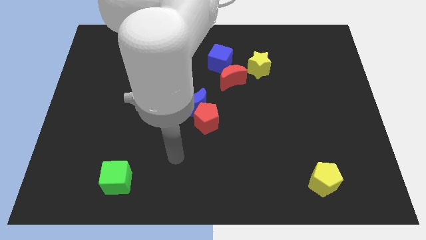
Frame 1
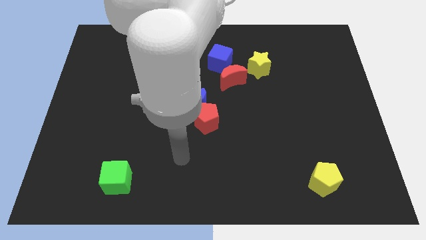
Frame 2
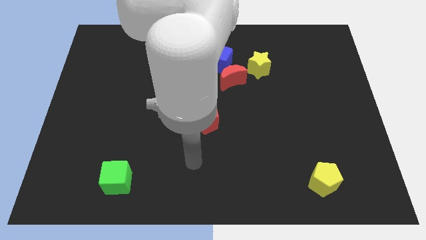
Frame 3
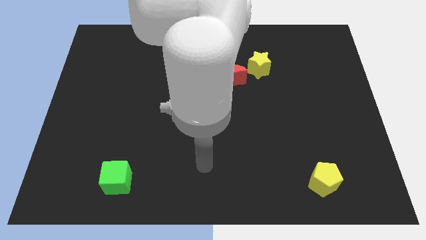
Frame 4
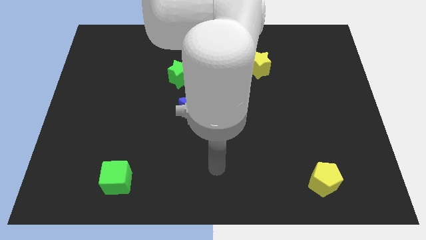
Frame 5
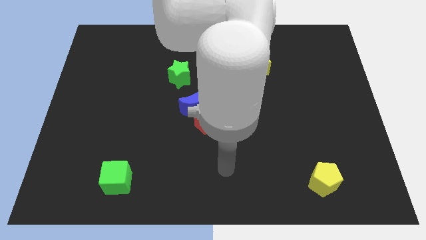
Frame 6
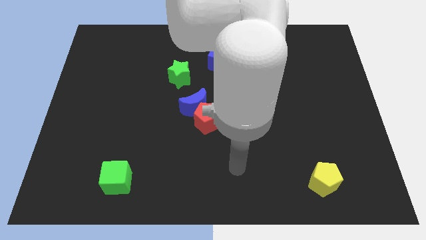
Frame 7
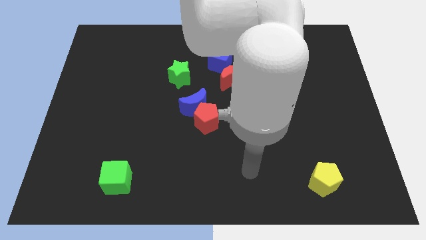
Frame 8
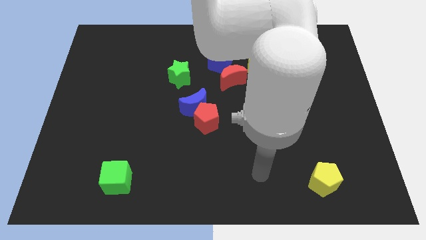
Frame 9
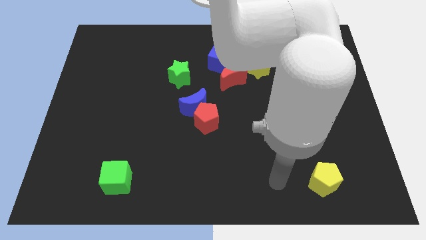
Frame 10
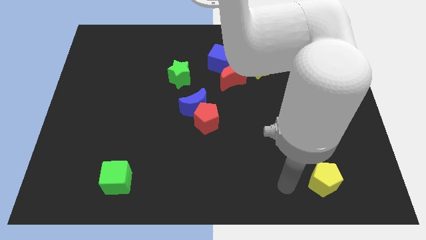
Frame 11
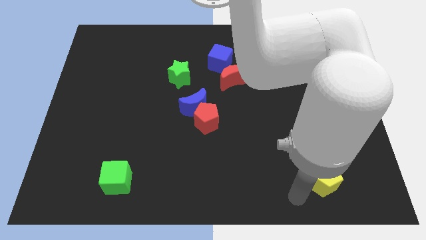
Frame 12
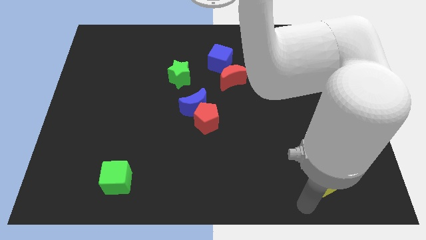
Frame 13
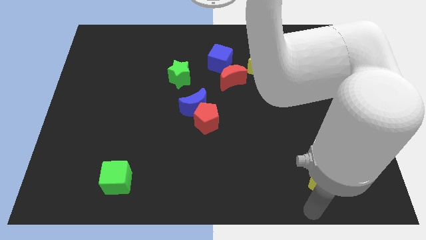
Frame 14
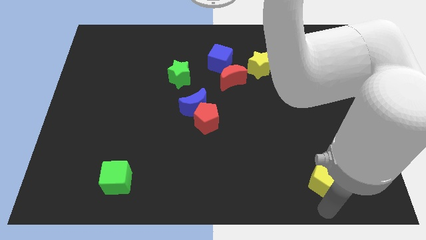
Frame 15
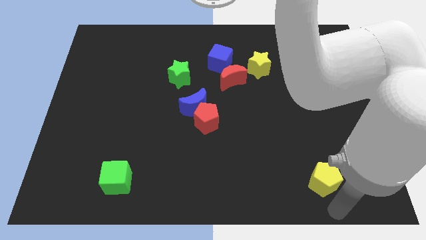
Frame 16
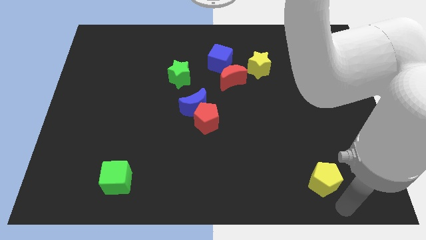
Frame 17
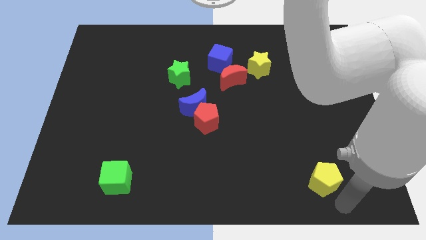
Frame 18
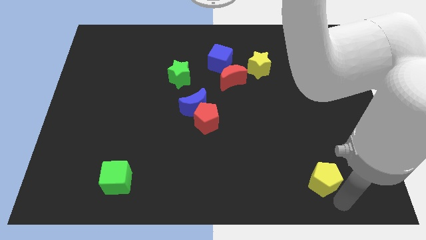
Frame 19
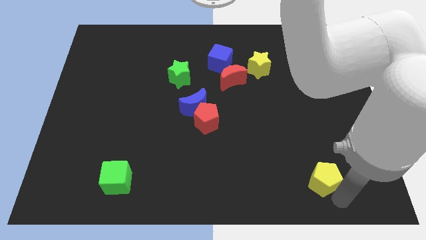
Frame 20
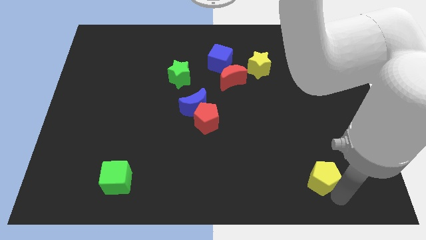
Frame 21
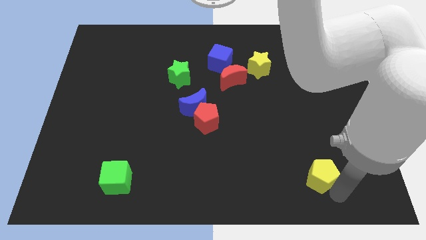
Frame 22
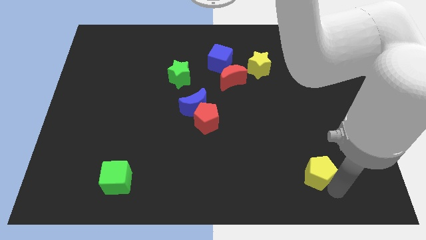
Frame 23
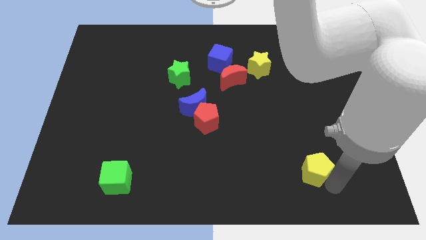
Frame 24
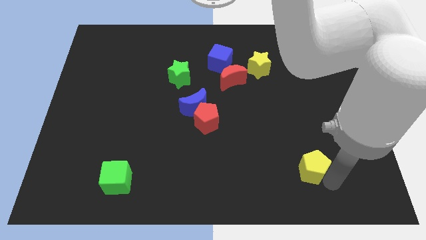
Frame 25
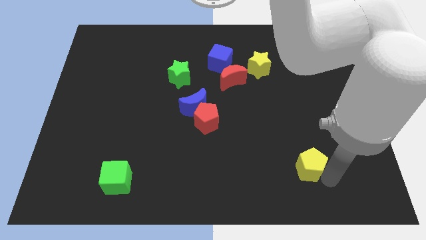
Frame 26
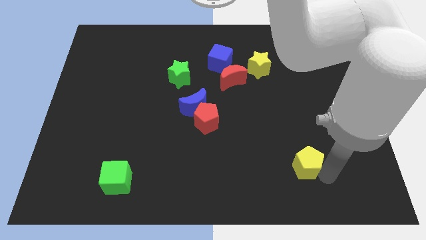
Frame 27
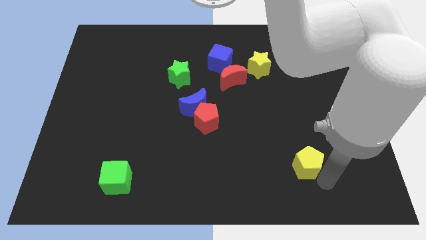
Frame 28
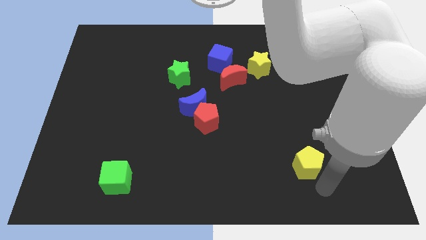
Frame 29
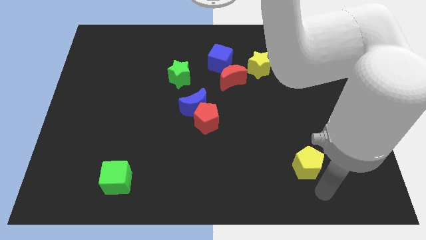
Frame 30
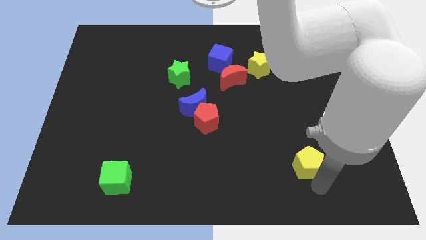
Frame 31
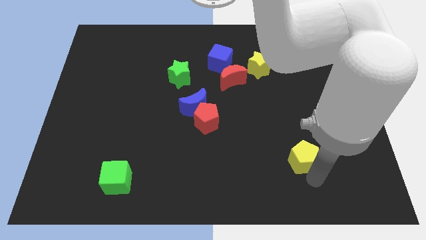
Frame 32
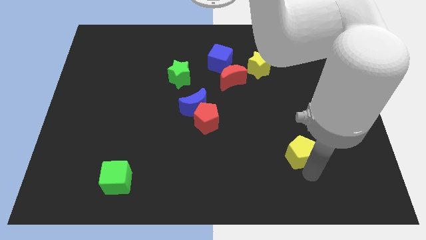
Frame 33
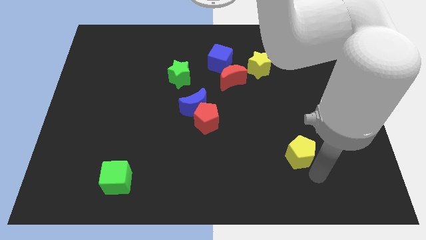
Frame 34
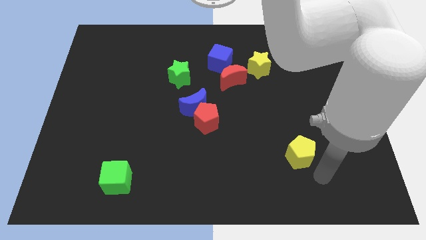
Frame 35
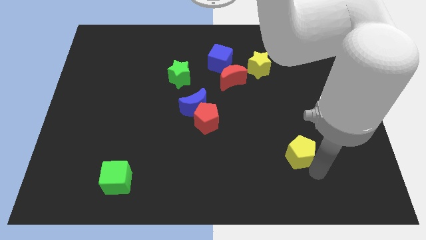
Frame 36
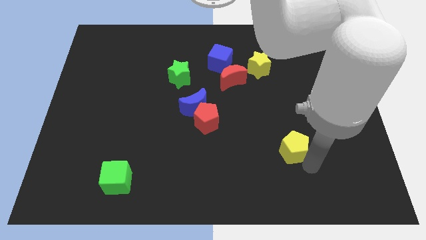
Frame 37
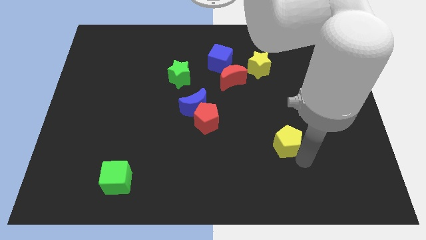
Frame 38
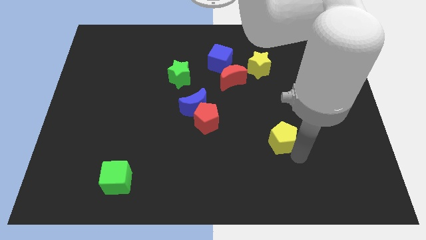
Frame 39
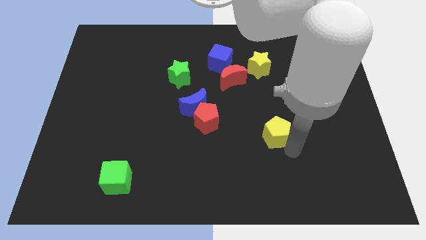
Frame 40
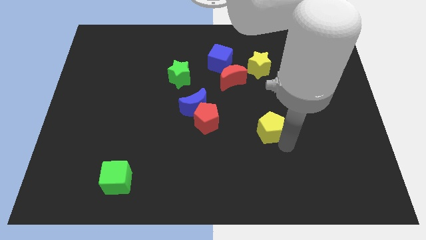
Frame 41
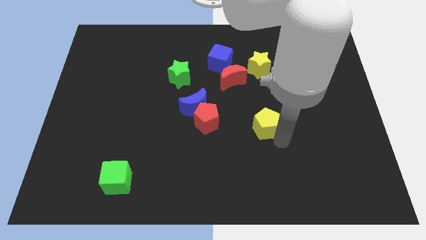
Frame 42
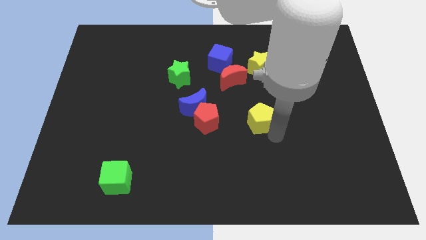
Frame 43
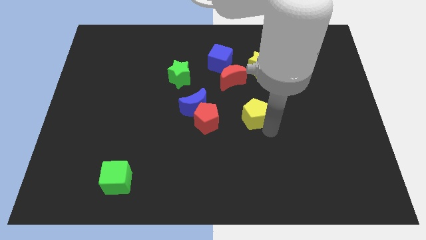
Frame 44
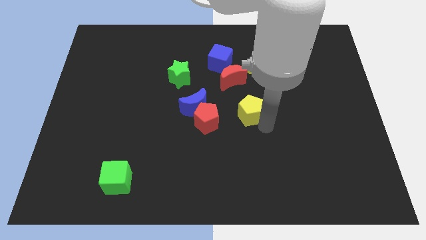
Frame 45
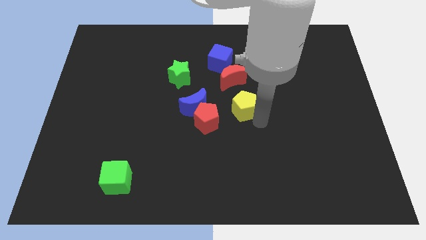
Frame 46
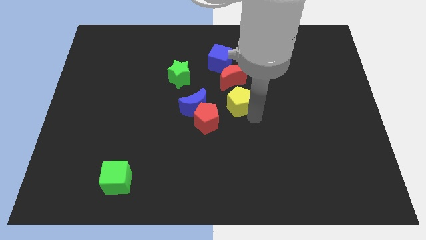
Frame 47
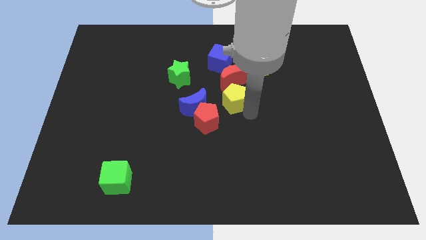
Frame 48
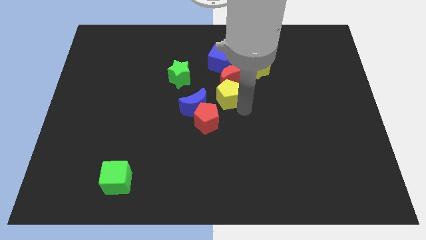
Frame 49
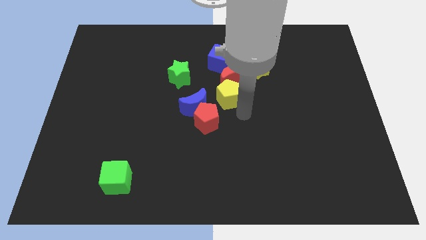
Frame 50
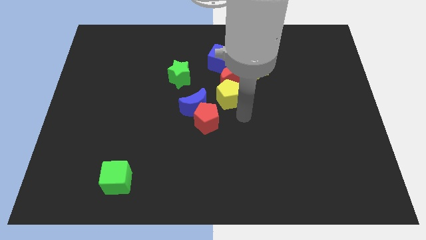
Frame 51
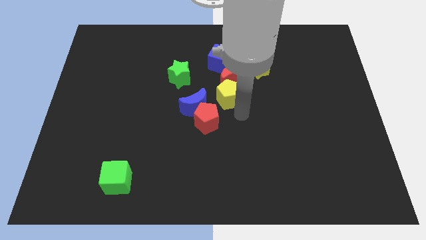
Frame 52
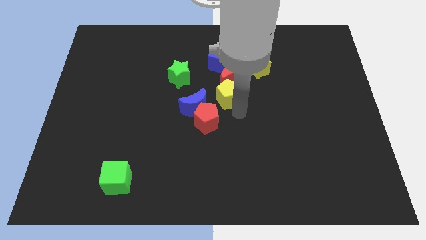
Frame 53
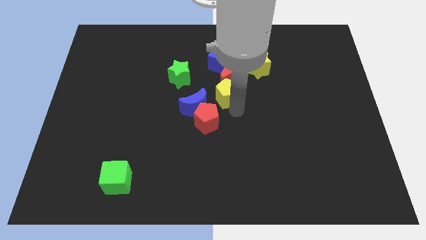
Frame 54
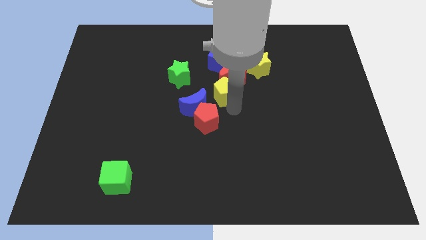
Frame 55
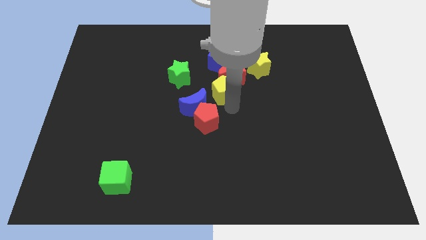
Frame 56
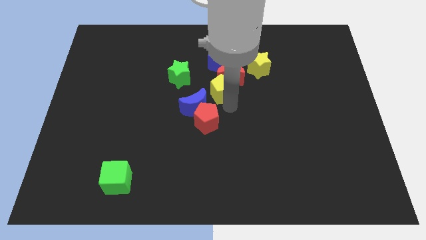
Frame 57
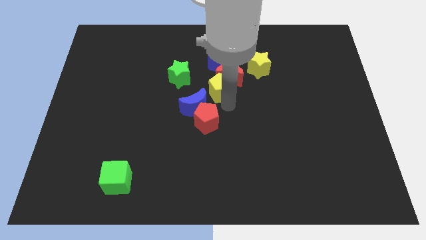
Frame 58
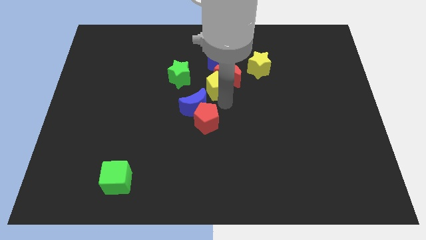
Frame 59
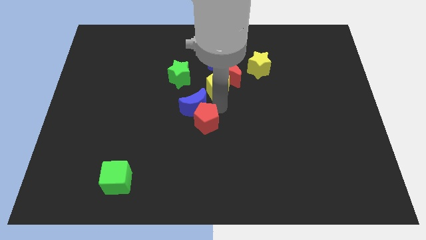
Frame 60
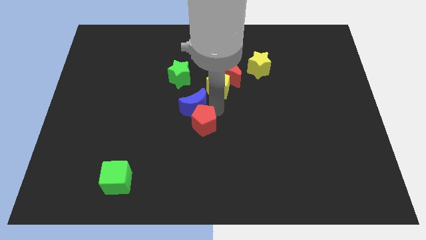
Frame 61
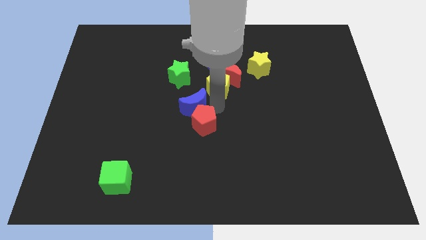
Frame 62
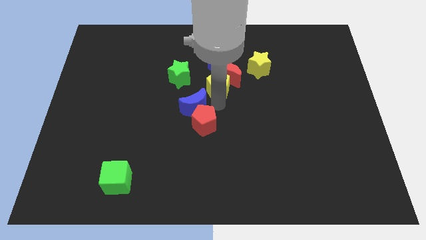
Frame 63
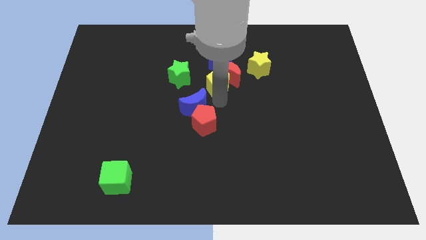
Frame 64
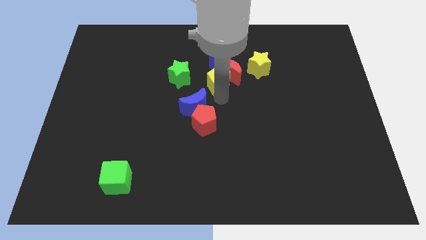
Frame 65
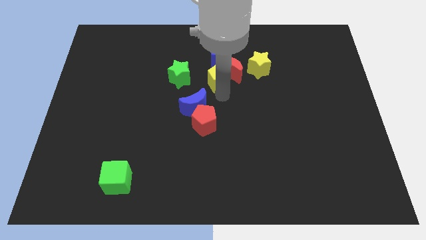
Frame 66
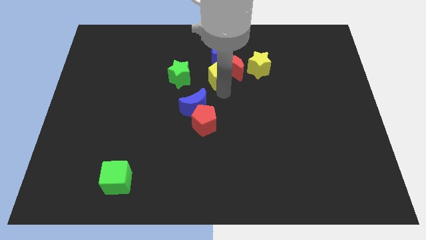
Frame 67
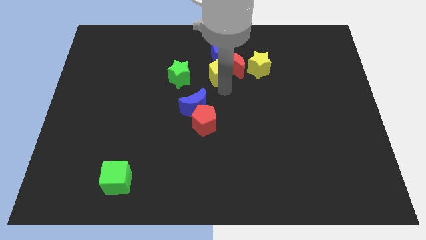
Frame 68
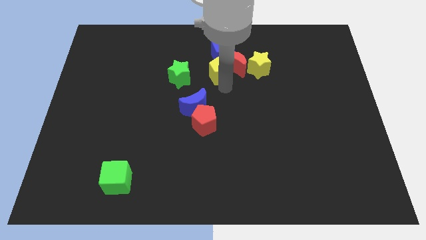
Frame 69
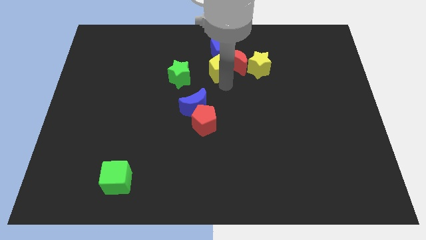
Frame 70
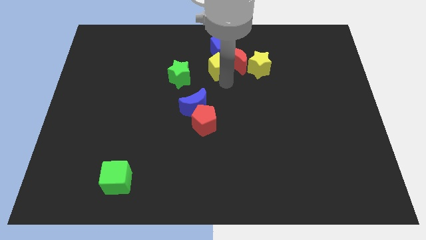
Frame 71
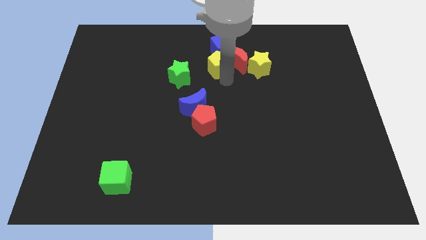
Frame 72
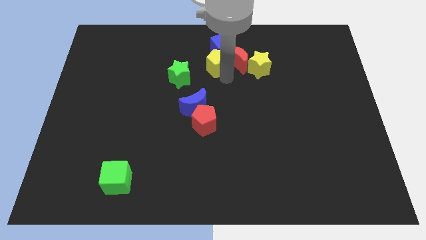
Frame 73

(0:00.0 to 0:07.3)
slide the yellow pentagon to the blue cube

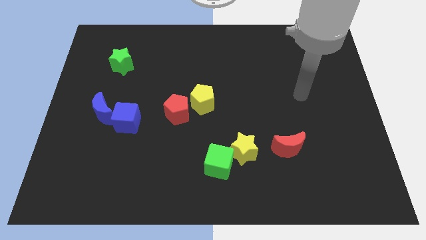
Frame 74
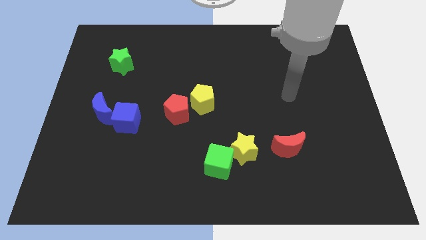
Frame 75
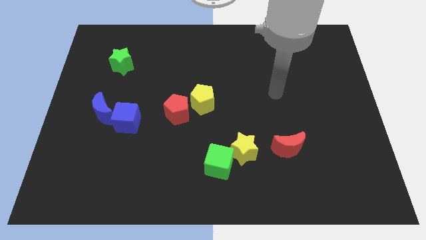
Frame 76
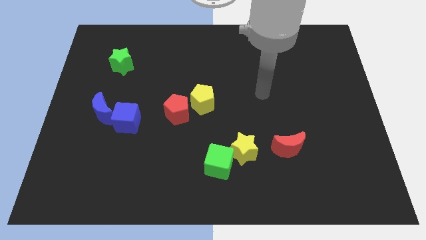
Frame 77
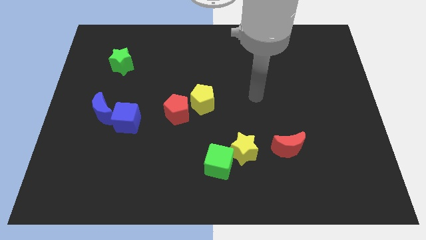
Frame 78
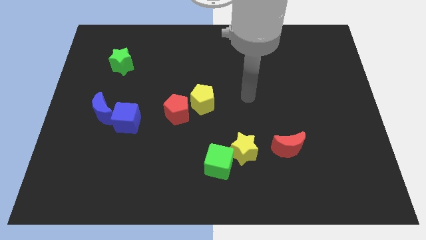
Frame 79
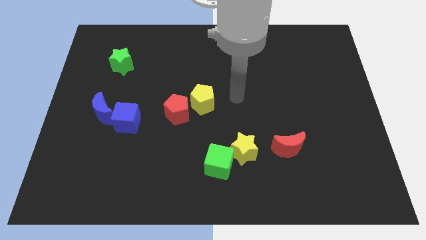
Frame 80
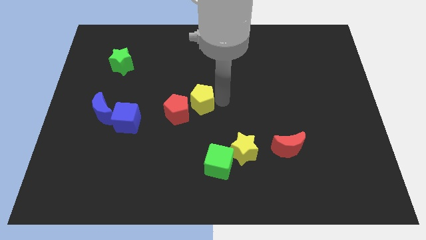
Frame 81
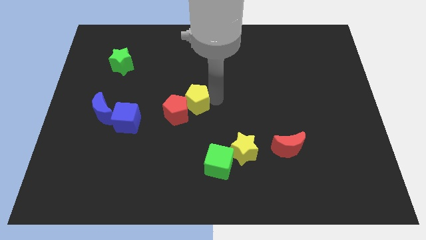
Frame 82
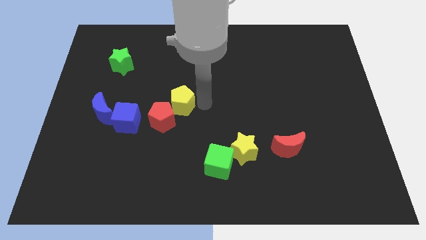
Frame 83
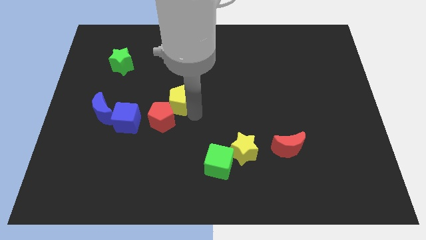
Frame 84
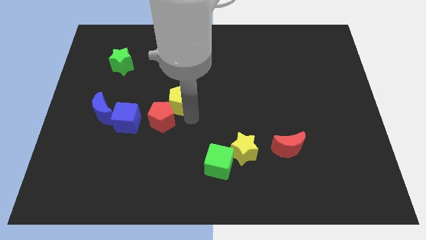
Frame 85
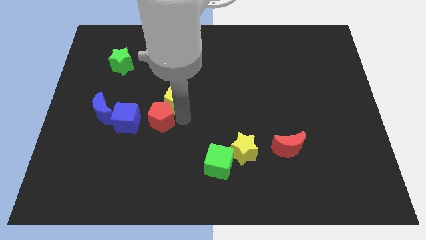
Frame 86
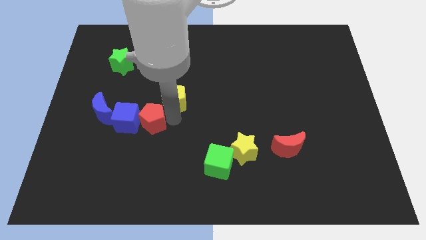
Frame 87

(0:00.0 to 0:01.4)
move the red pentagon to the blue cube
